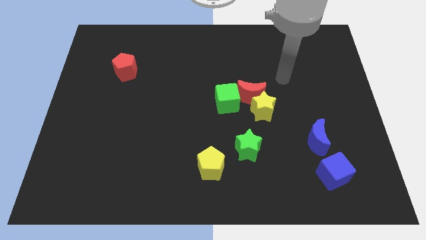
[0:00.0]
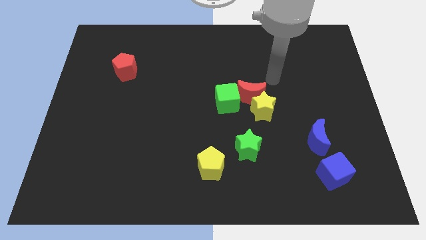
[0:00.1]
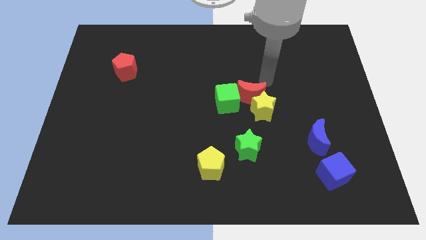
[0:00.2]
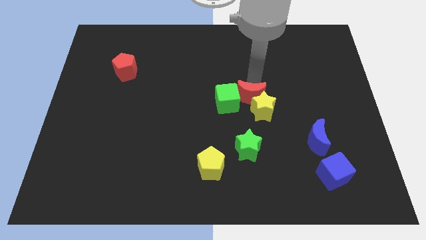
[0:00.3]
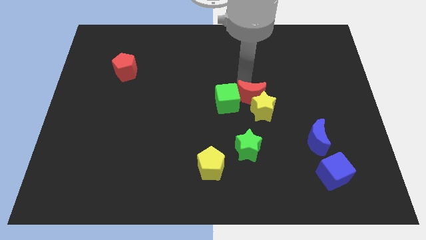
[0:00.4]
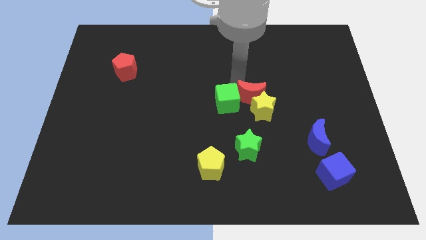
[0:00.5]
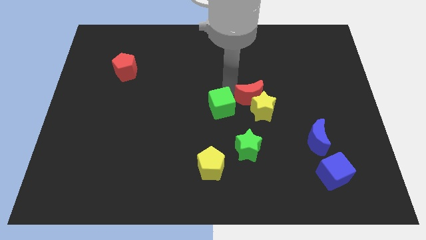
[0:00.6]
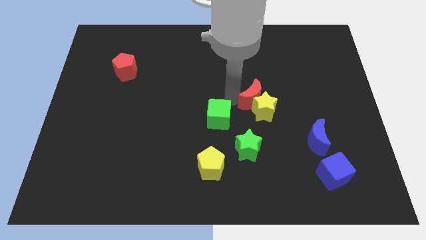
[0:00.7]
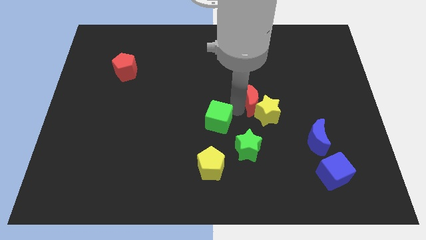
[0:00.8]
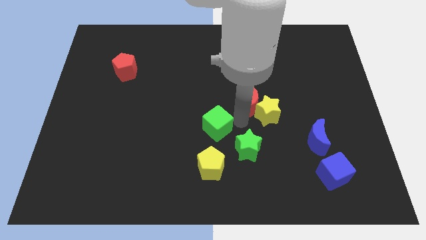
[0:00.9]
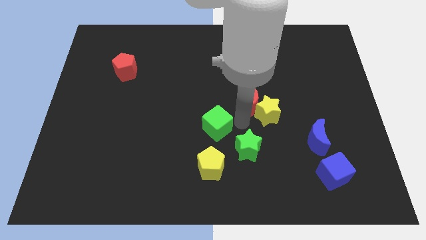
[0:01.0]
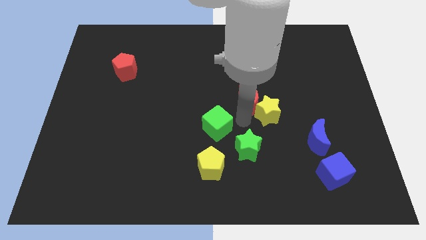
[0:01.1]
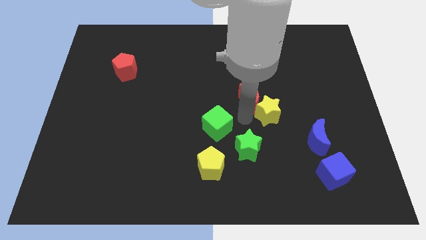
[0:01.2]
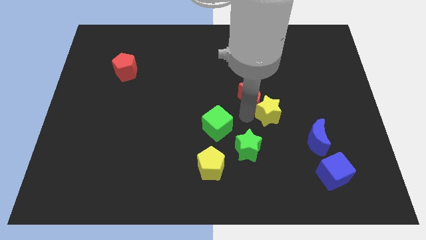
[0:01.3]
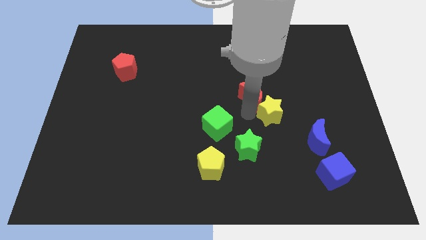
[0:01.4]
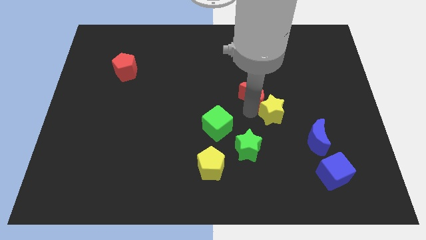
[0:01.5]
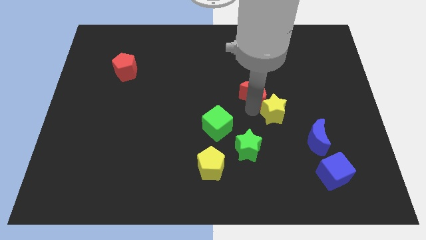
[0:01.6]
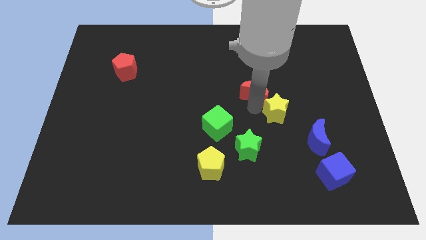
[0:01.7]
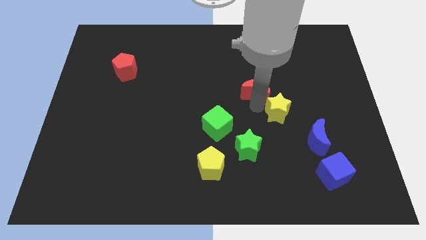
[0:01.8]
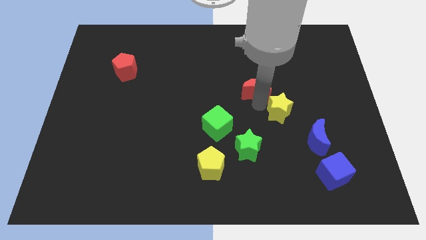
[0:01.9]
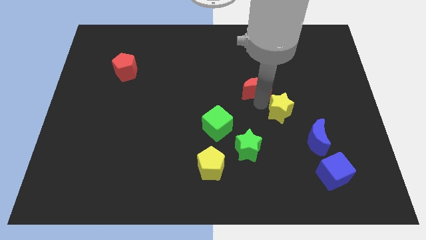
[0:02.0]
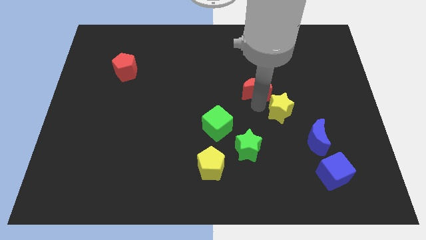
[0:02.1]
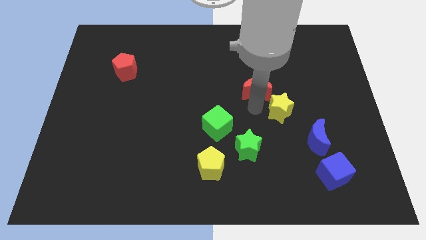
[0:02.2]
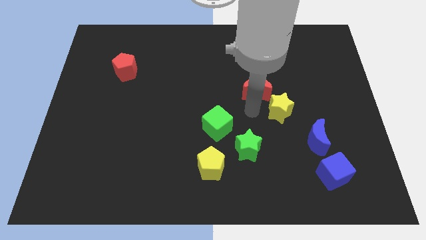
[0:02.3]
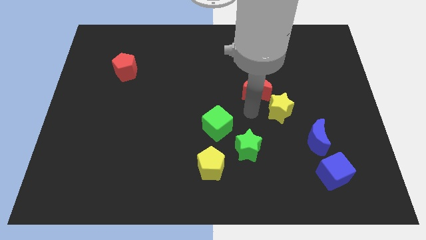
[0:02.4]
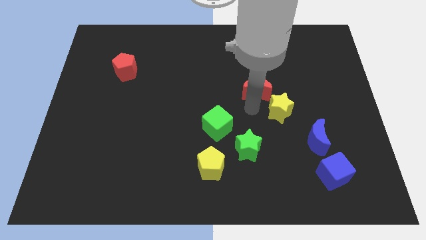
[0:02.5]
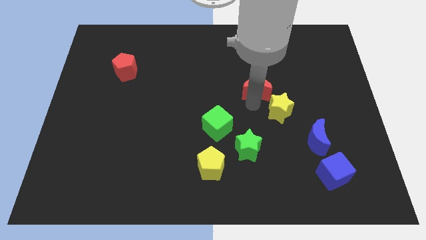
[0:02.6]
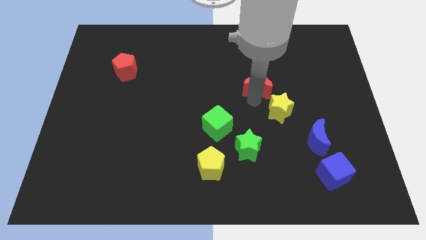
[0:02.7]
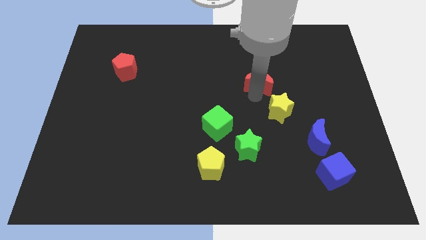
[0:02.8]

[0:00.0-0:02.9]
separate the red moon from the yellow star and green cube

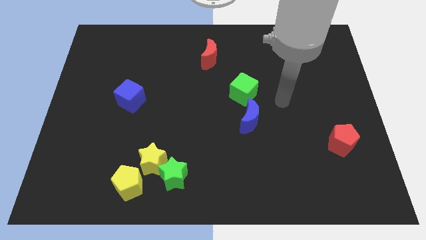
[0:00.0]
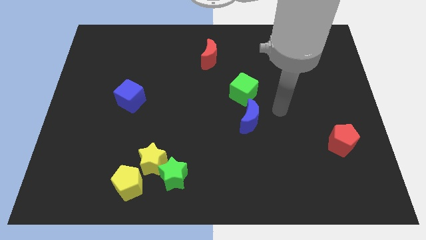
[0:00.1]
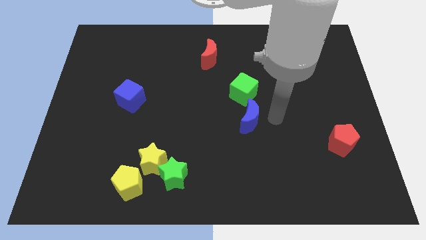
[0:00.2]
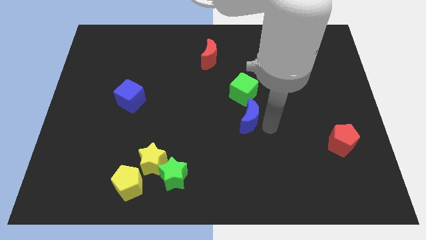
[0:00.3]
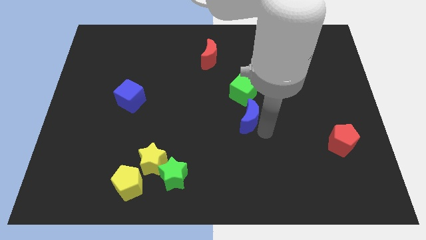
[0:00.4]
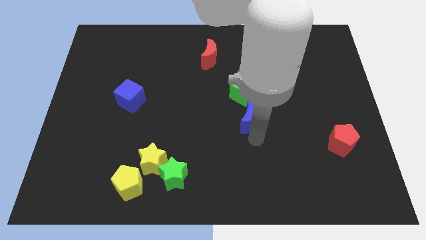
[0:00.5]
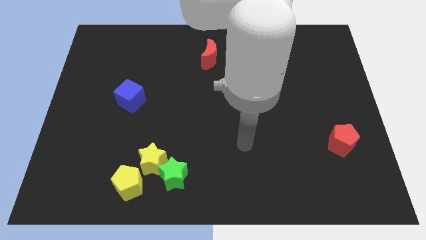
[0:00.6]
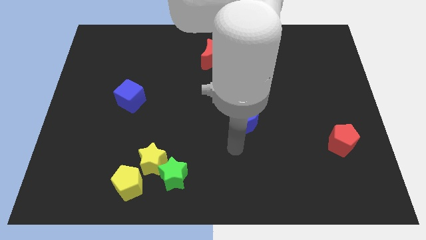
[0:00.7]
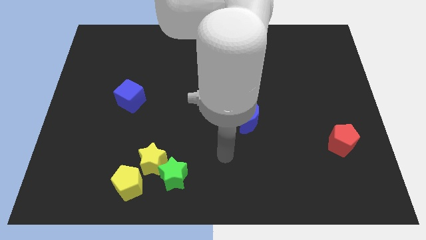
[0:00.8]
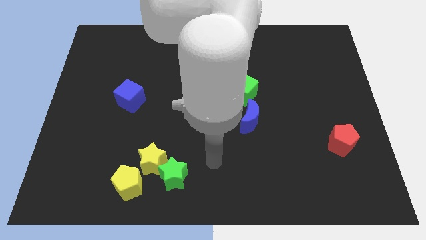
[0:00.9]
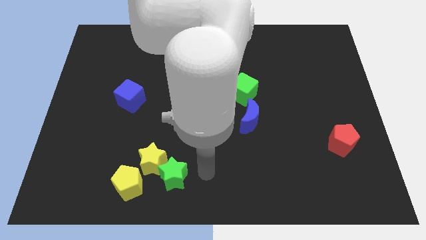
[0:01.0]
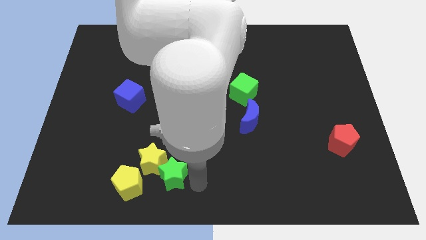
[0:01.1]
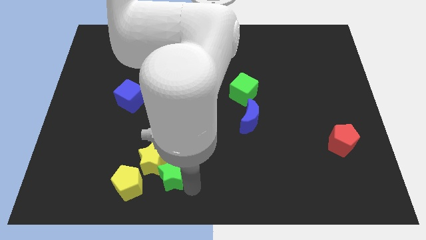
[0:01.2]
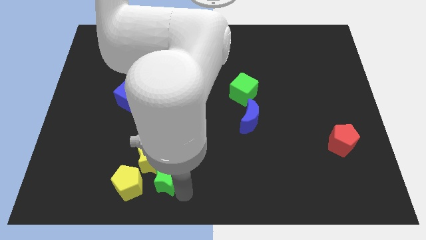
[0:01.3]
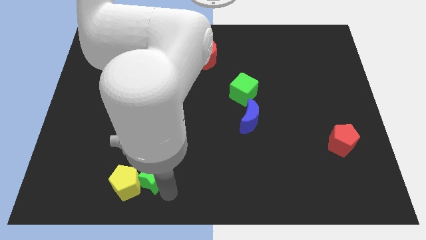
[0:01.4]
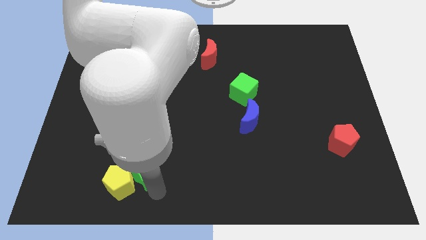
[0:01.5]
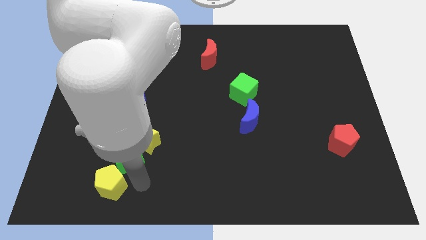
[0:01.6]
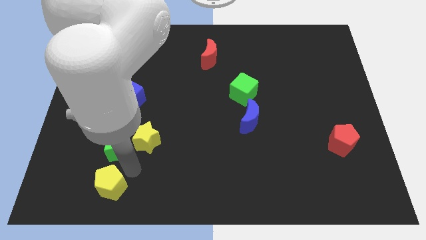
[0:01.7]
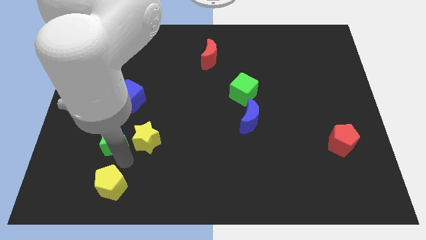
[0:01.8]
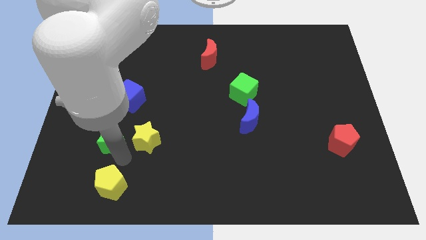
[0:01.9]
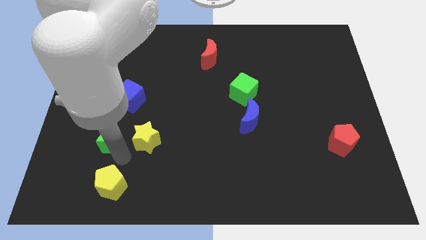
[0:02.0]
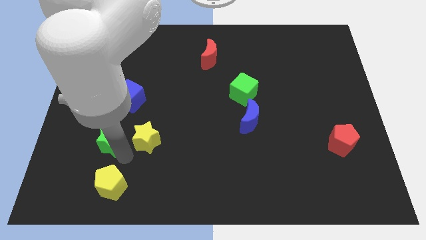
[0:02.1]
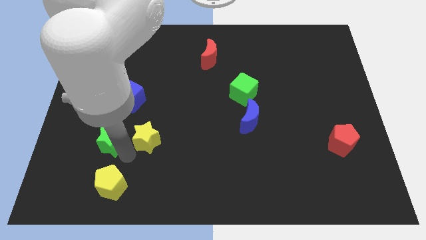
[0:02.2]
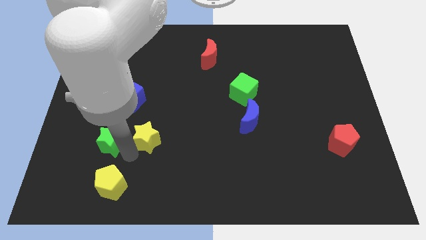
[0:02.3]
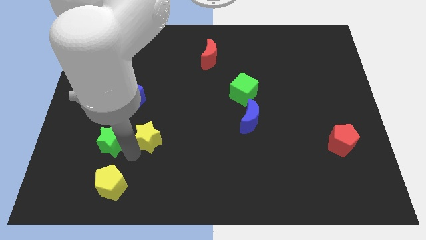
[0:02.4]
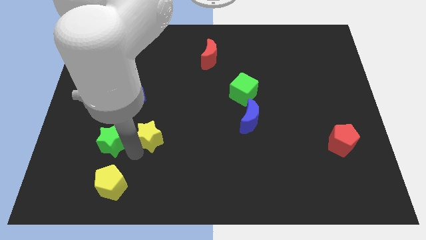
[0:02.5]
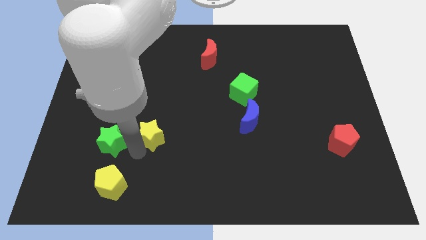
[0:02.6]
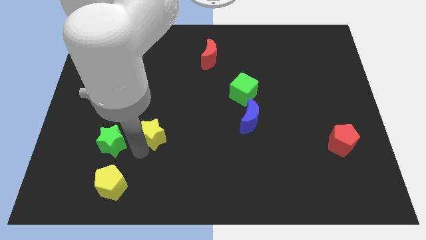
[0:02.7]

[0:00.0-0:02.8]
separate the yellow star from the green star and yellow pentagon

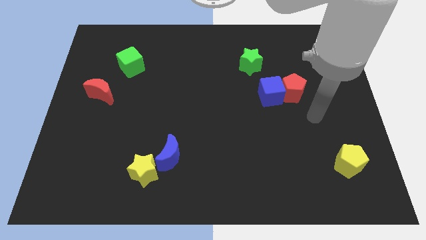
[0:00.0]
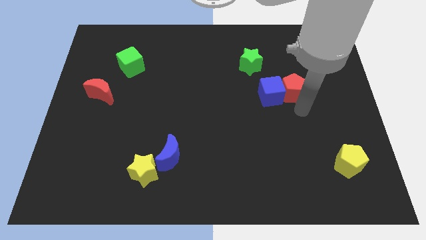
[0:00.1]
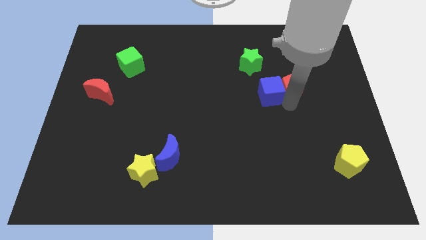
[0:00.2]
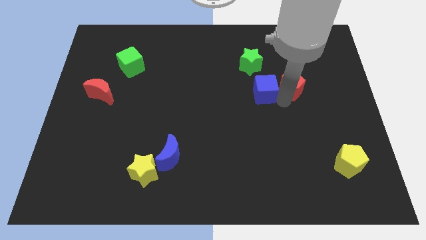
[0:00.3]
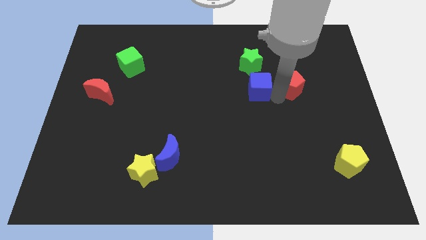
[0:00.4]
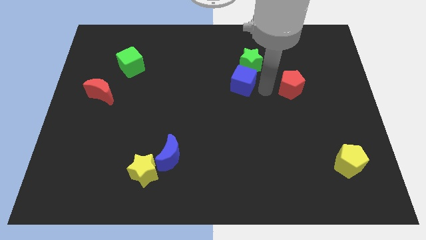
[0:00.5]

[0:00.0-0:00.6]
separate the red pentagon from the blue cube

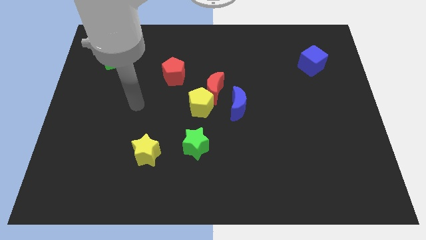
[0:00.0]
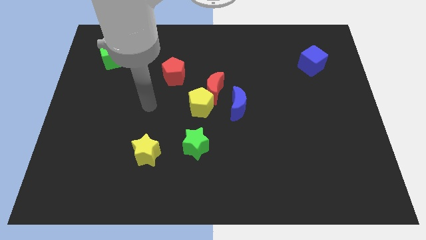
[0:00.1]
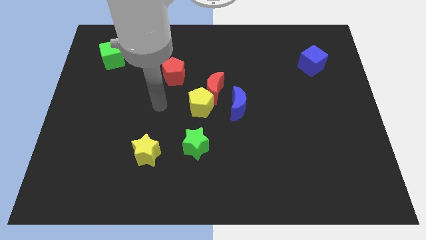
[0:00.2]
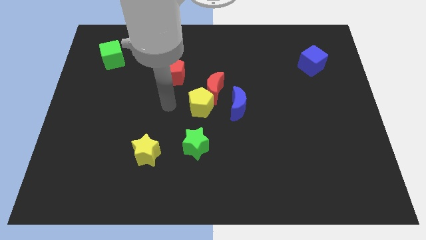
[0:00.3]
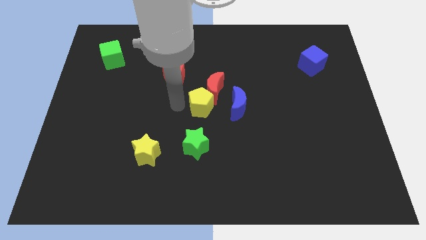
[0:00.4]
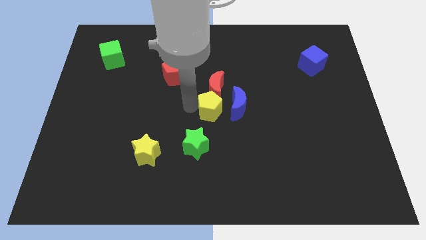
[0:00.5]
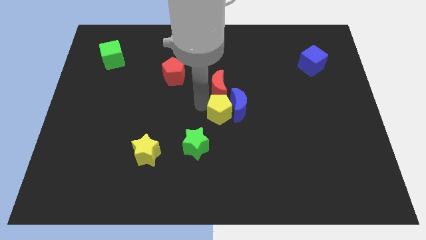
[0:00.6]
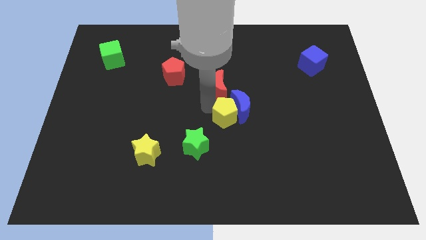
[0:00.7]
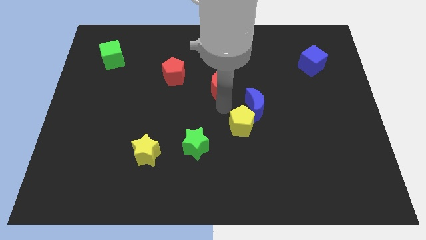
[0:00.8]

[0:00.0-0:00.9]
pull the red moon apart from the yellow pentagon and blue moon

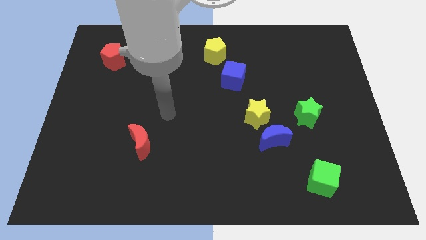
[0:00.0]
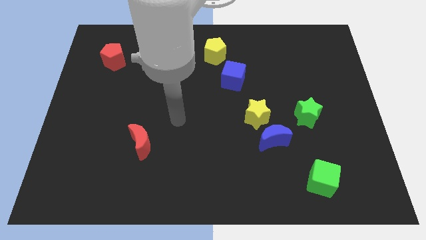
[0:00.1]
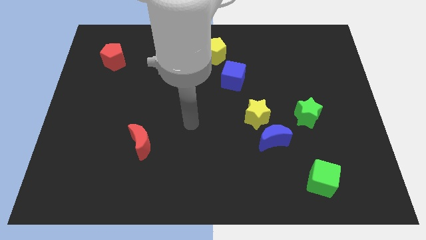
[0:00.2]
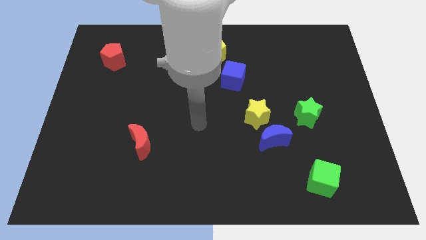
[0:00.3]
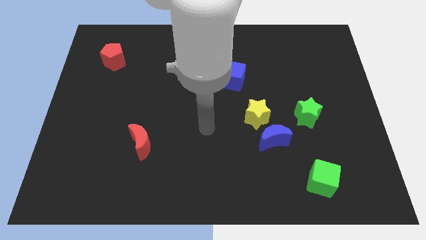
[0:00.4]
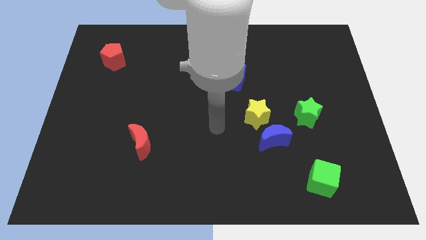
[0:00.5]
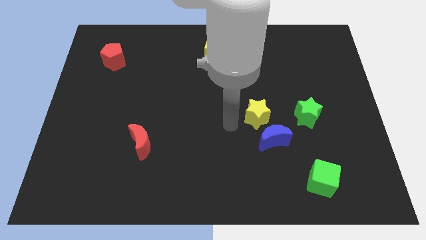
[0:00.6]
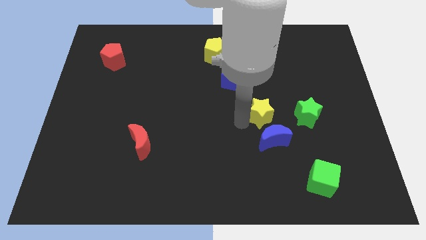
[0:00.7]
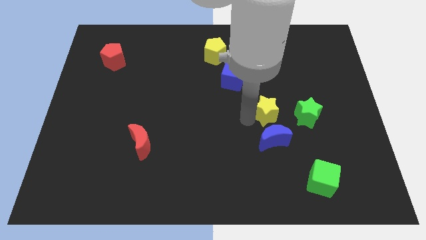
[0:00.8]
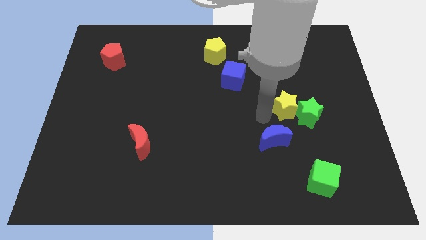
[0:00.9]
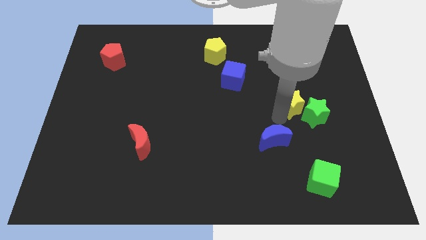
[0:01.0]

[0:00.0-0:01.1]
move the blue moon away from the yellow star

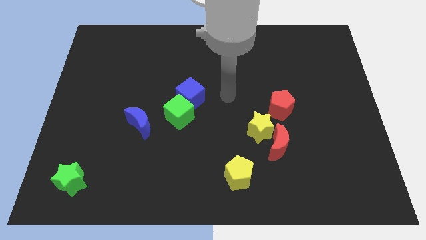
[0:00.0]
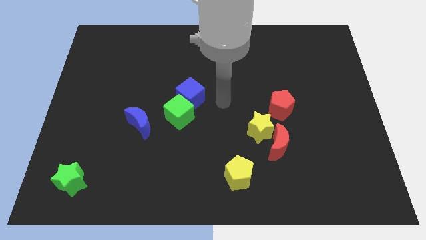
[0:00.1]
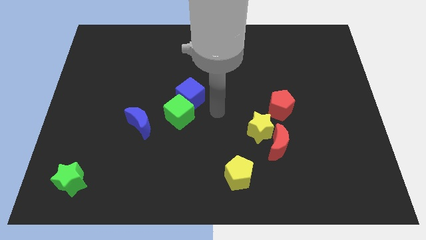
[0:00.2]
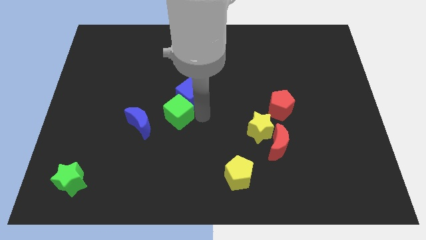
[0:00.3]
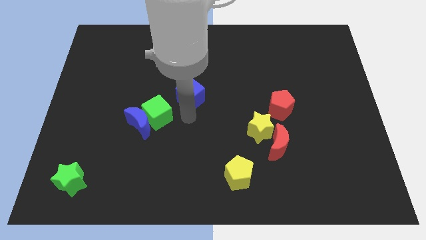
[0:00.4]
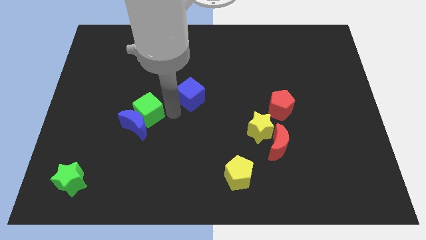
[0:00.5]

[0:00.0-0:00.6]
separate the blue cube from the green cube

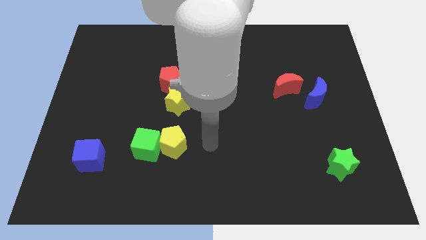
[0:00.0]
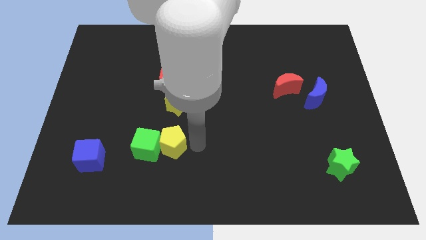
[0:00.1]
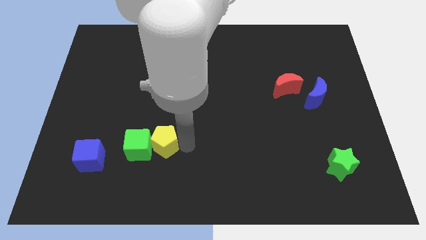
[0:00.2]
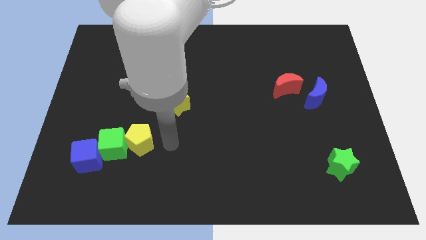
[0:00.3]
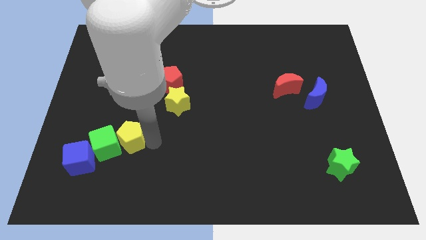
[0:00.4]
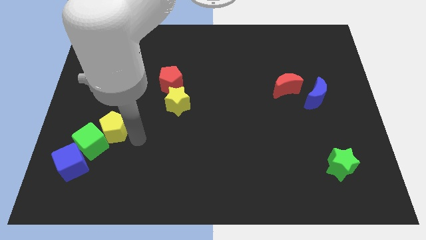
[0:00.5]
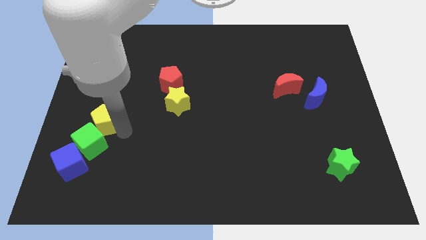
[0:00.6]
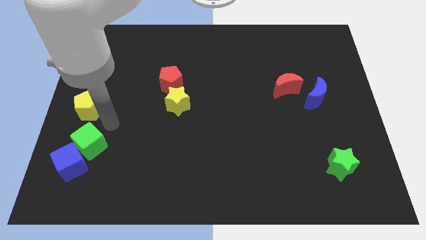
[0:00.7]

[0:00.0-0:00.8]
move the green cube away from the yellow pentagon
